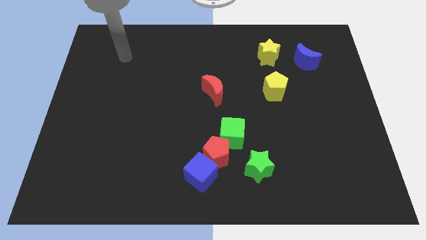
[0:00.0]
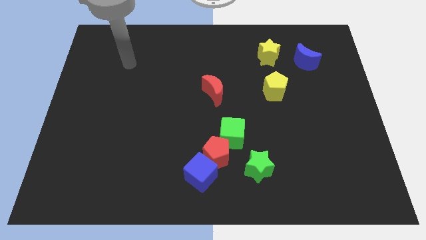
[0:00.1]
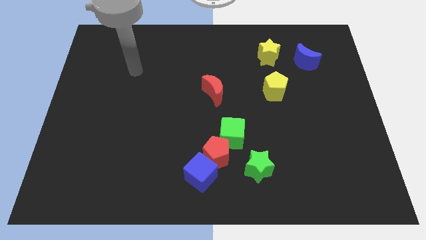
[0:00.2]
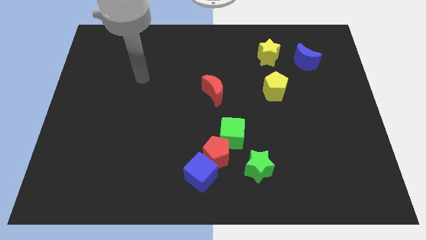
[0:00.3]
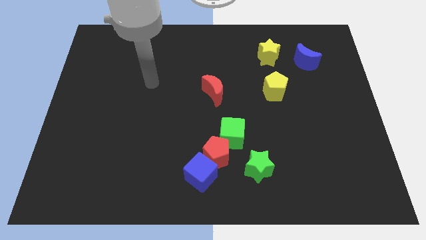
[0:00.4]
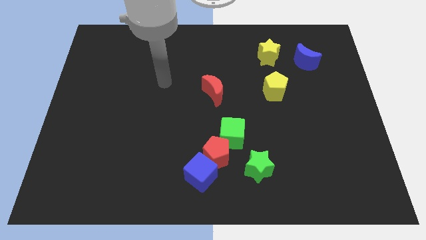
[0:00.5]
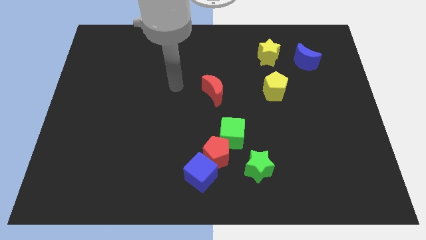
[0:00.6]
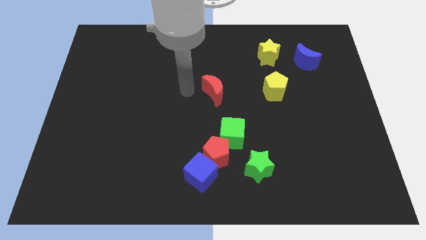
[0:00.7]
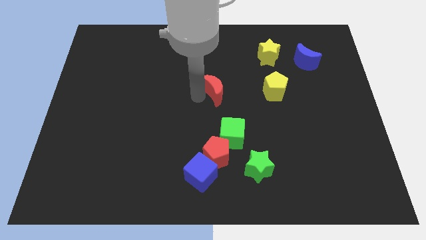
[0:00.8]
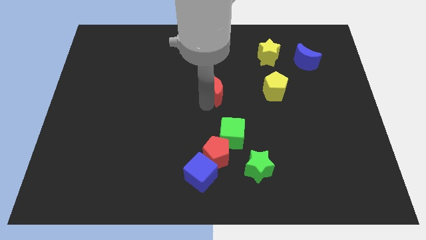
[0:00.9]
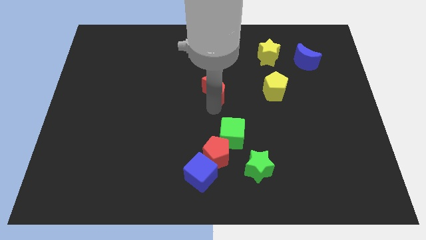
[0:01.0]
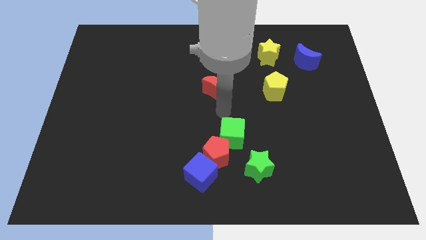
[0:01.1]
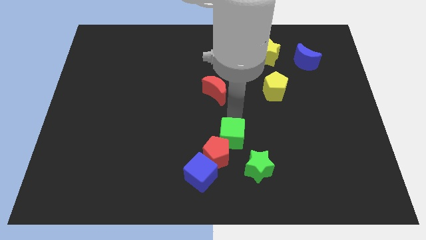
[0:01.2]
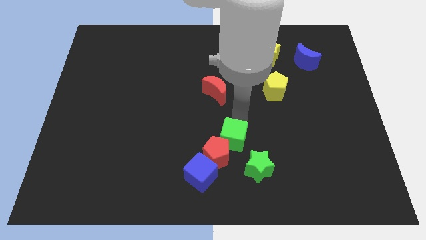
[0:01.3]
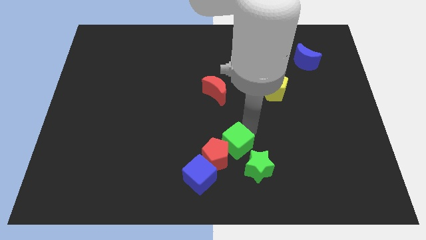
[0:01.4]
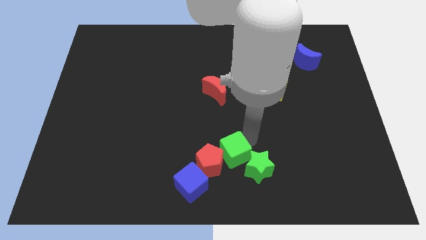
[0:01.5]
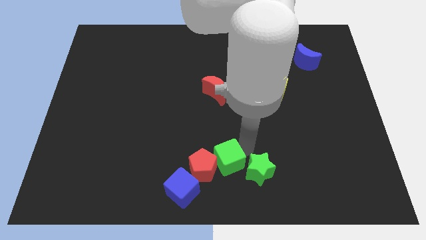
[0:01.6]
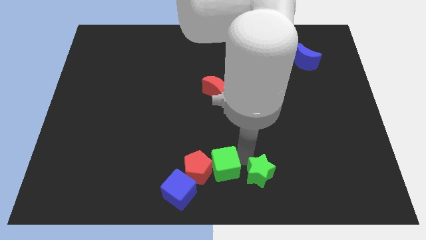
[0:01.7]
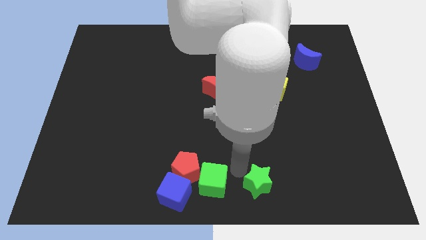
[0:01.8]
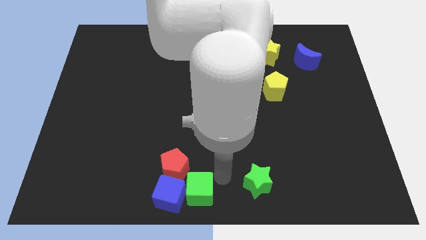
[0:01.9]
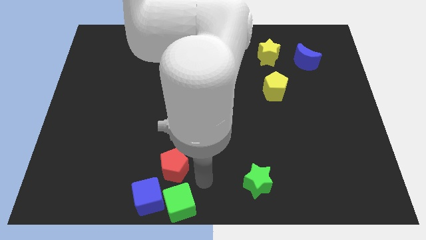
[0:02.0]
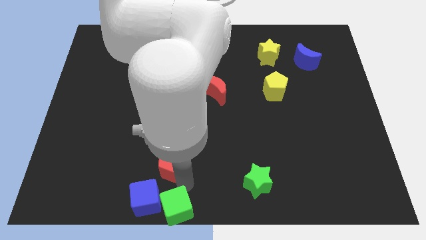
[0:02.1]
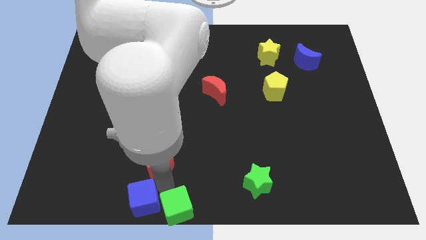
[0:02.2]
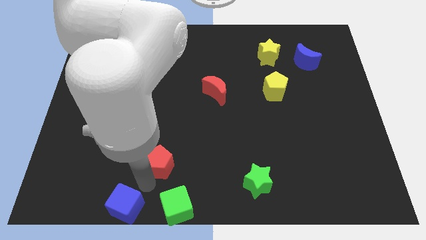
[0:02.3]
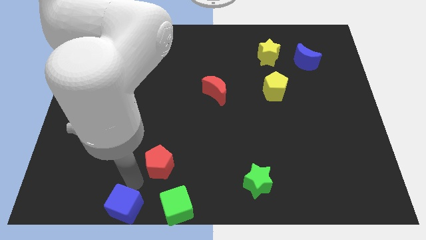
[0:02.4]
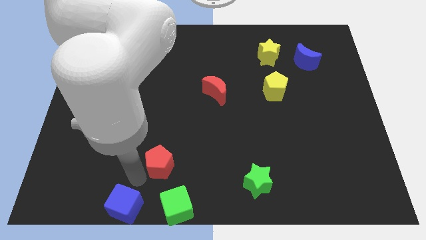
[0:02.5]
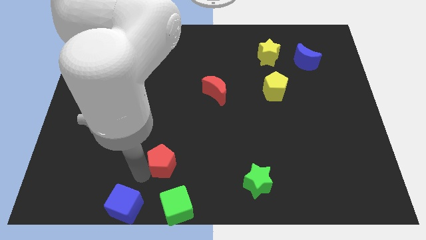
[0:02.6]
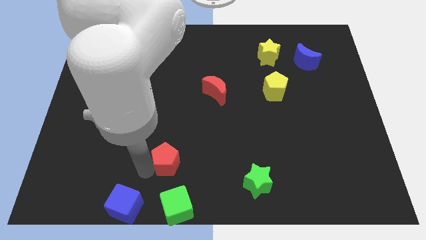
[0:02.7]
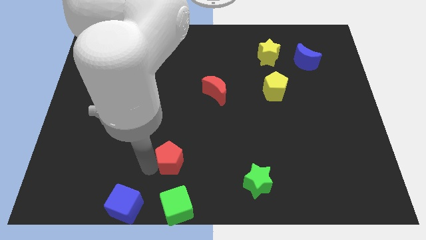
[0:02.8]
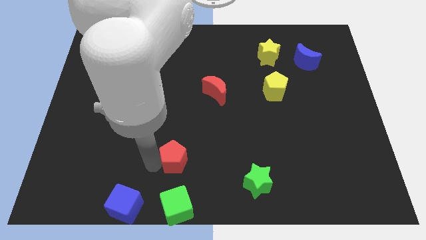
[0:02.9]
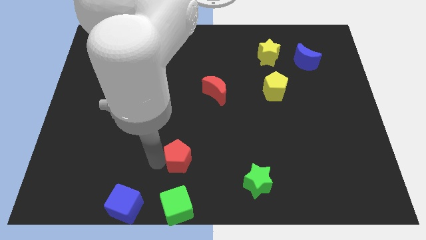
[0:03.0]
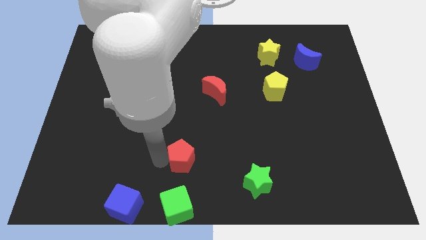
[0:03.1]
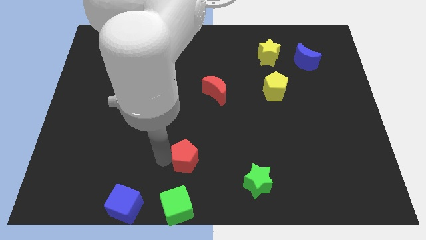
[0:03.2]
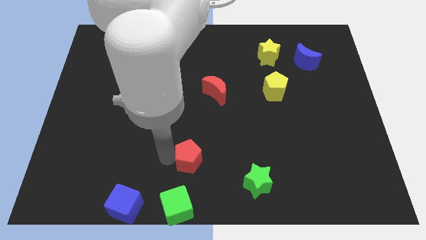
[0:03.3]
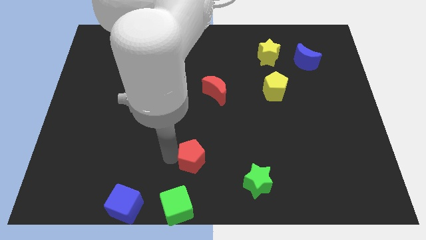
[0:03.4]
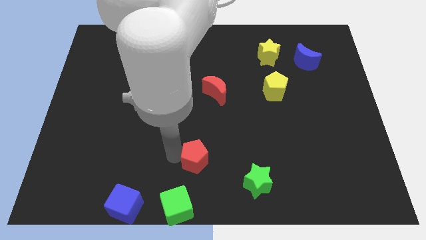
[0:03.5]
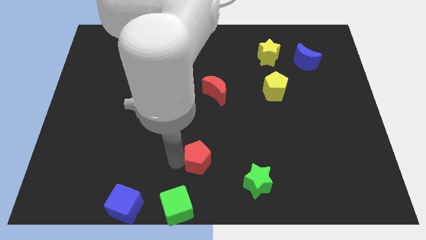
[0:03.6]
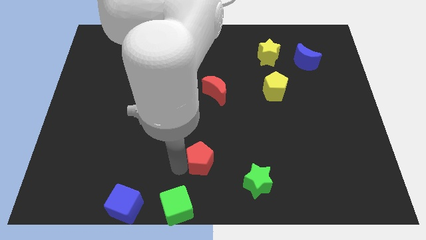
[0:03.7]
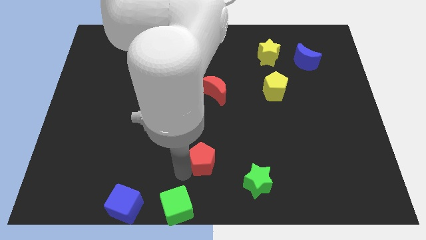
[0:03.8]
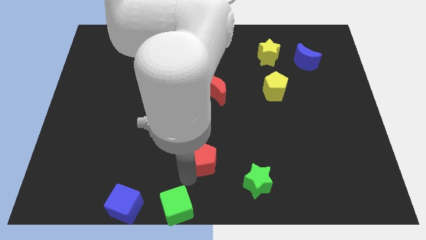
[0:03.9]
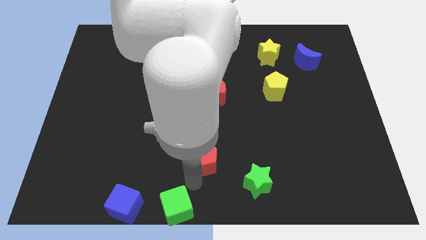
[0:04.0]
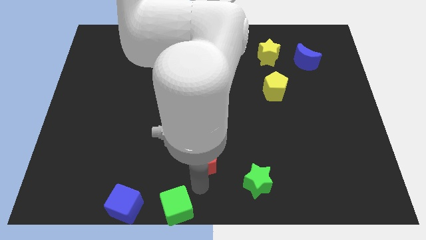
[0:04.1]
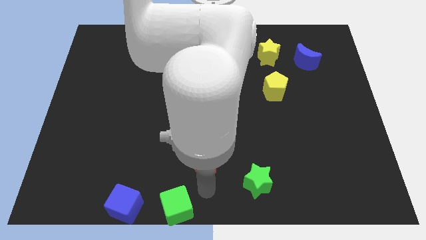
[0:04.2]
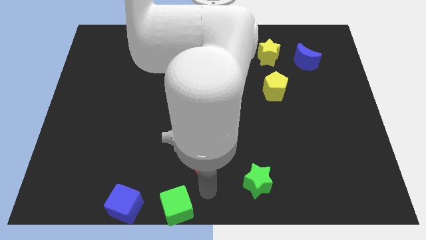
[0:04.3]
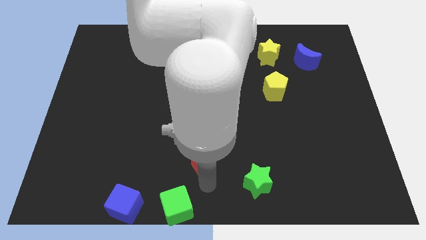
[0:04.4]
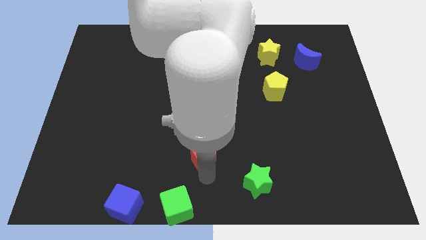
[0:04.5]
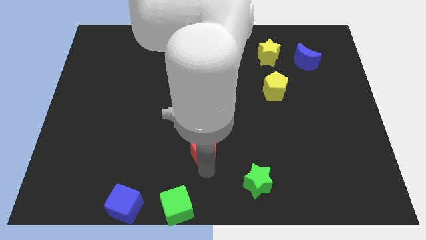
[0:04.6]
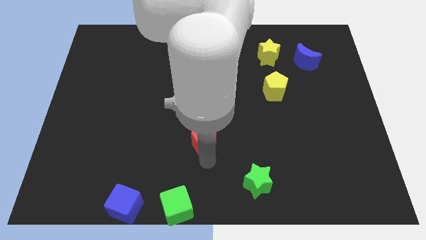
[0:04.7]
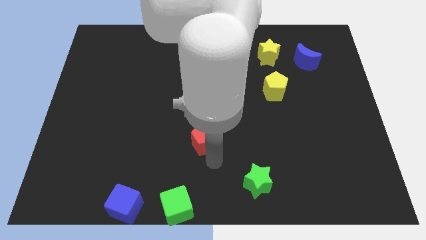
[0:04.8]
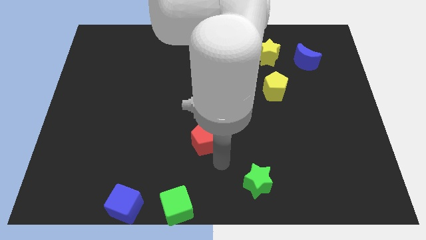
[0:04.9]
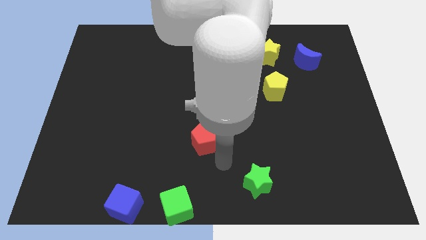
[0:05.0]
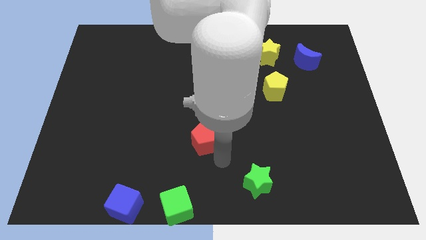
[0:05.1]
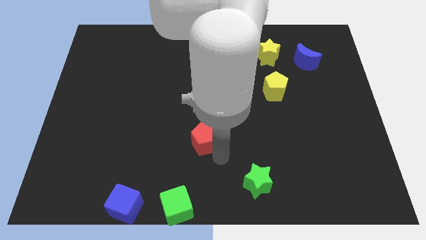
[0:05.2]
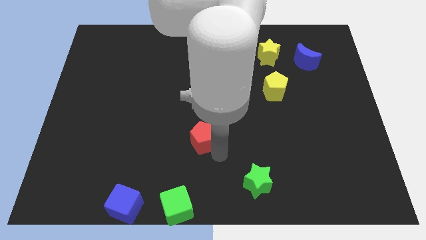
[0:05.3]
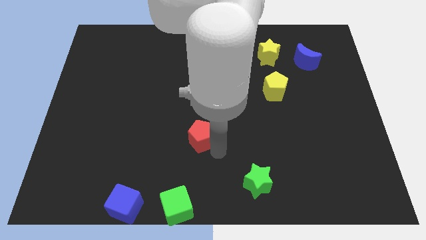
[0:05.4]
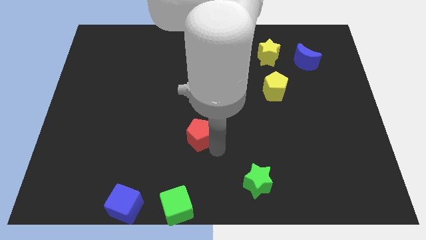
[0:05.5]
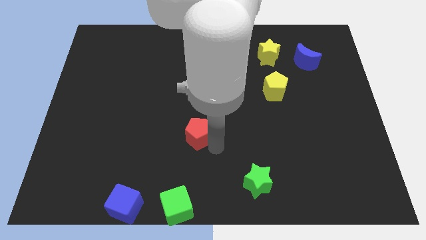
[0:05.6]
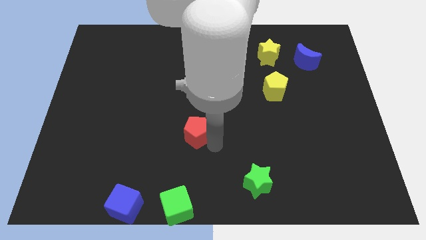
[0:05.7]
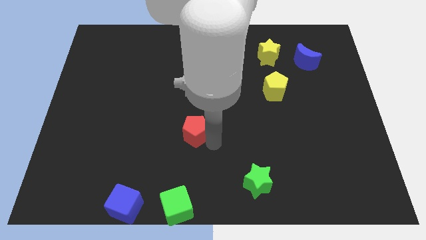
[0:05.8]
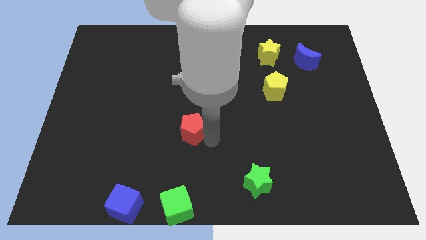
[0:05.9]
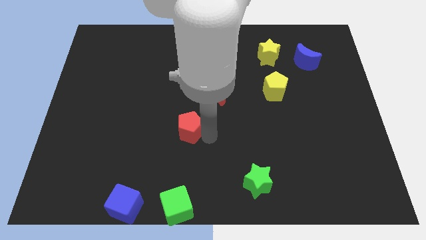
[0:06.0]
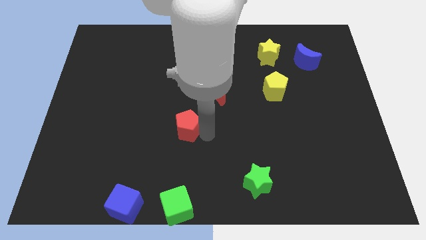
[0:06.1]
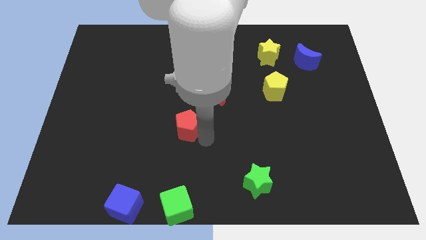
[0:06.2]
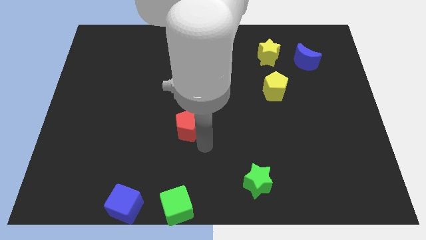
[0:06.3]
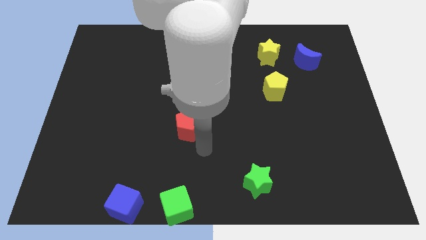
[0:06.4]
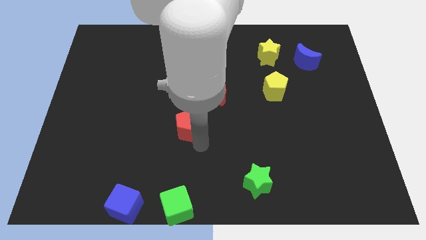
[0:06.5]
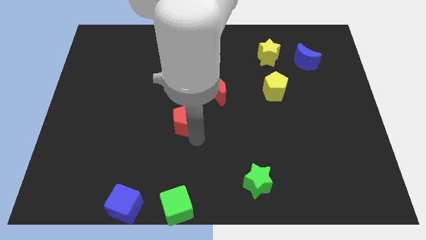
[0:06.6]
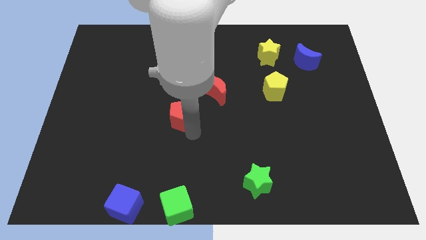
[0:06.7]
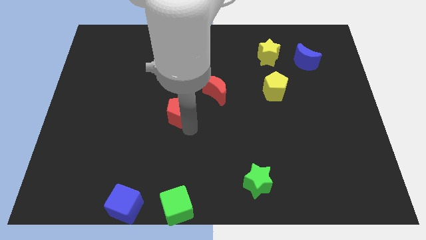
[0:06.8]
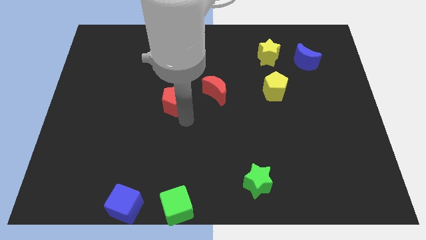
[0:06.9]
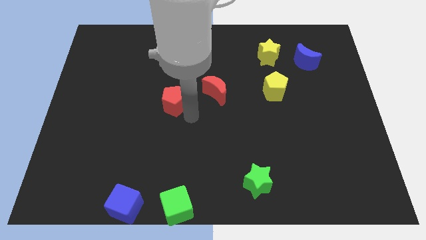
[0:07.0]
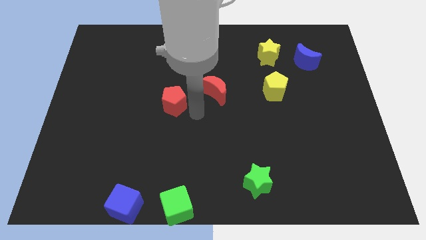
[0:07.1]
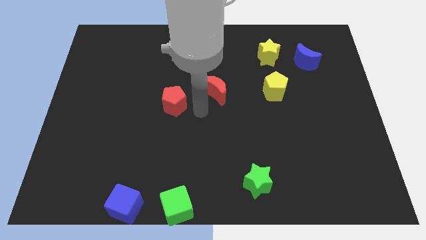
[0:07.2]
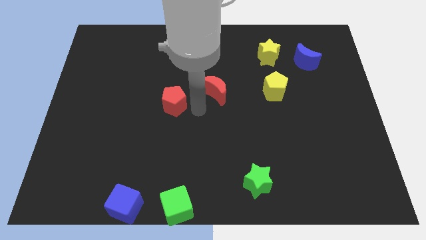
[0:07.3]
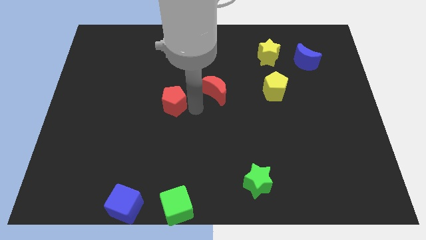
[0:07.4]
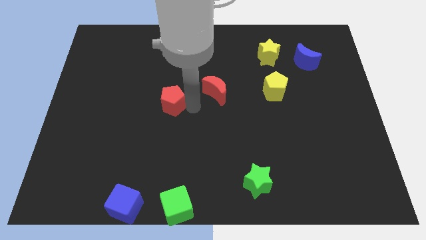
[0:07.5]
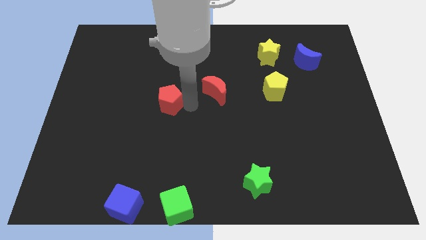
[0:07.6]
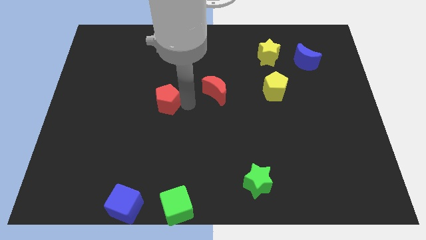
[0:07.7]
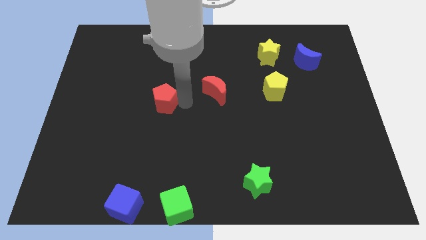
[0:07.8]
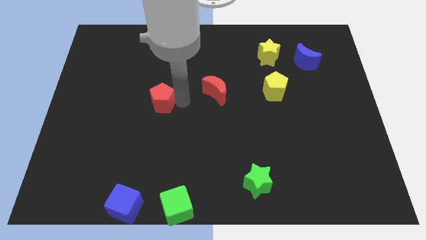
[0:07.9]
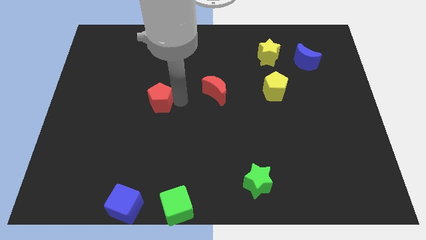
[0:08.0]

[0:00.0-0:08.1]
push the red pentagon upwards and to the left
